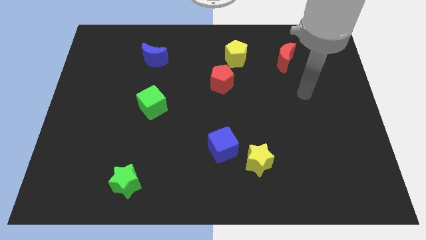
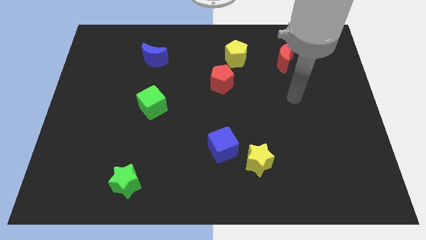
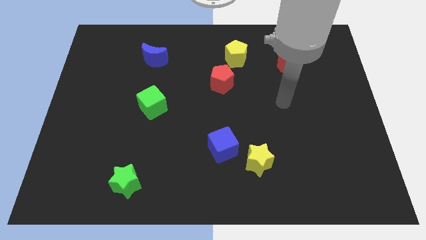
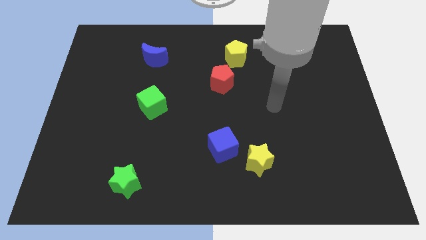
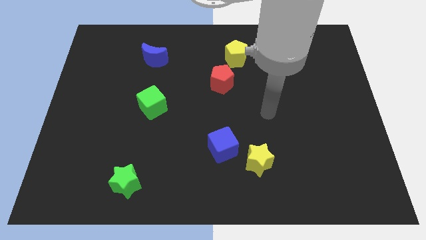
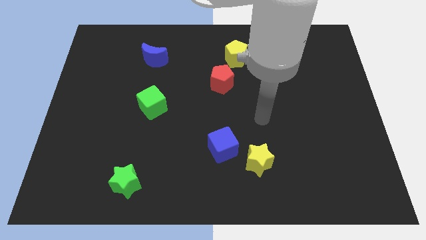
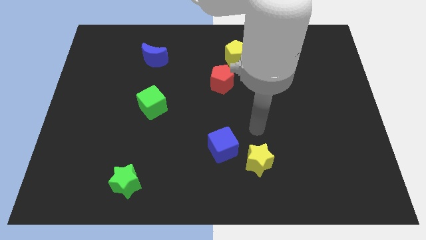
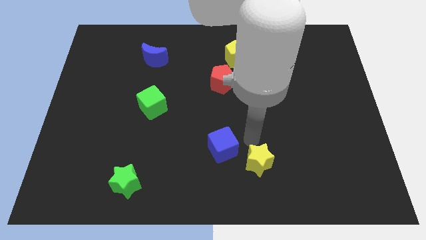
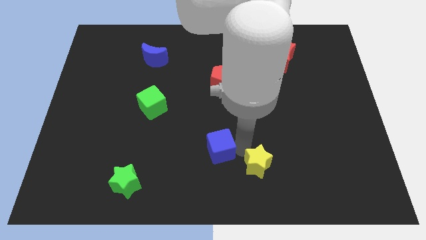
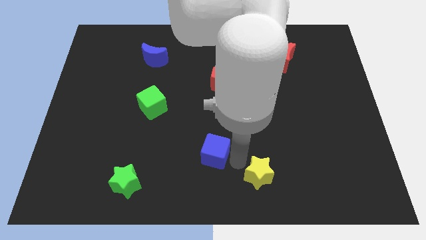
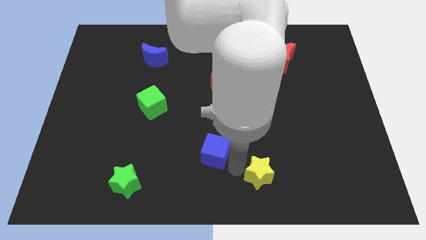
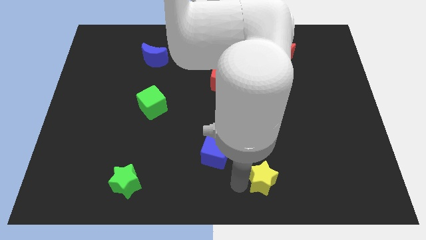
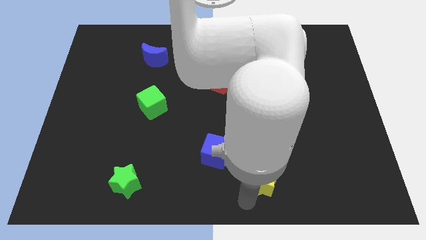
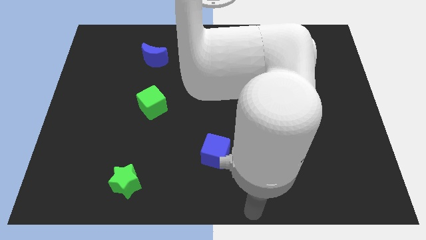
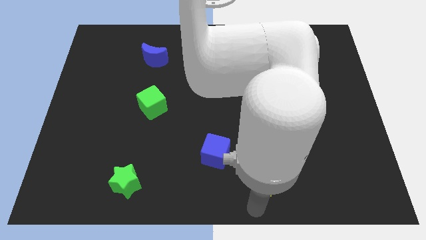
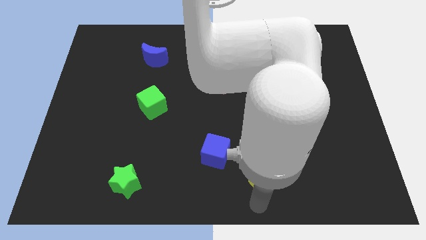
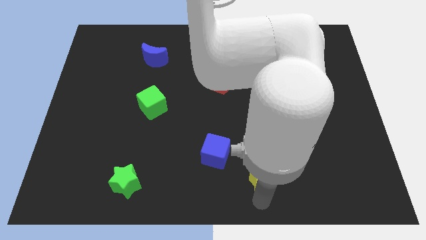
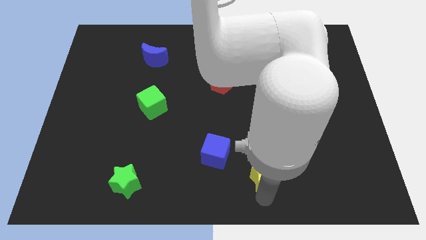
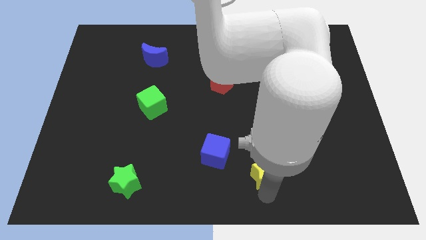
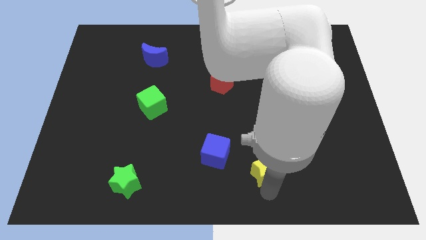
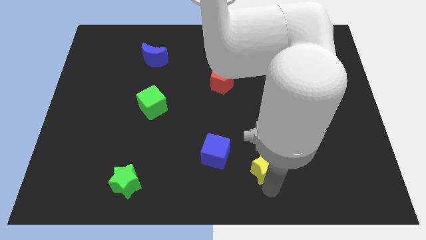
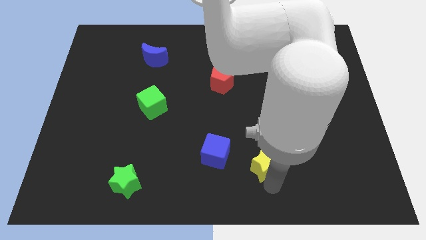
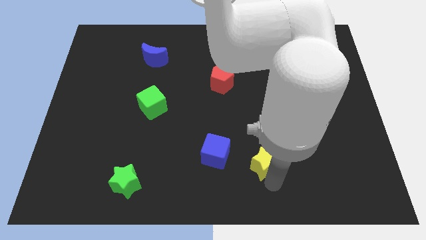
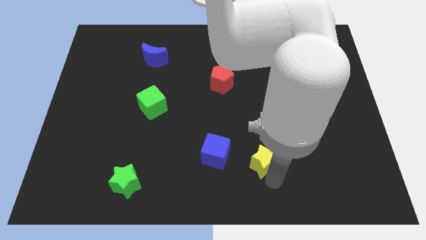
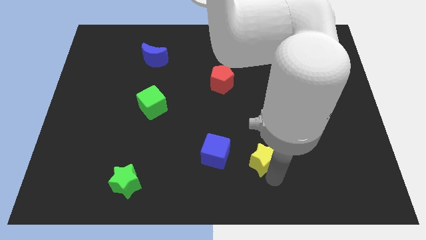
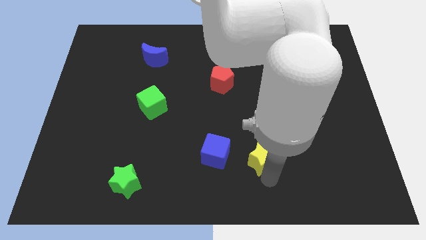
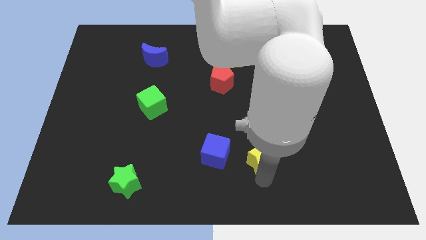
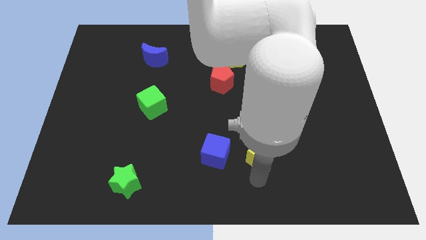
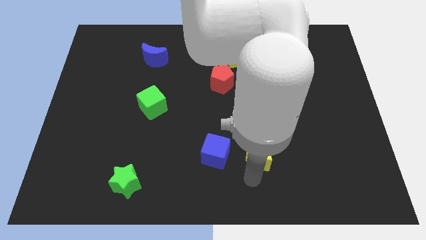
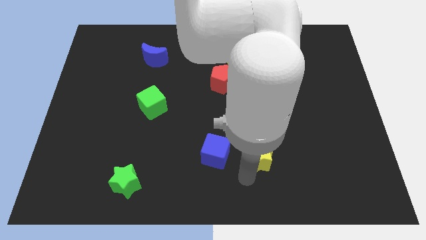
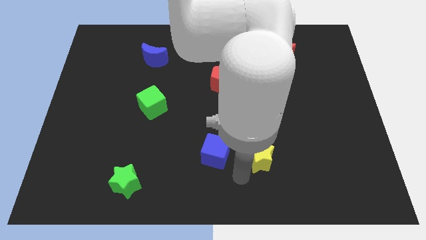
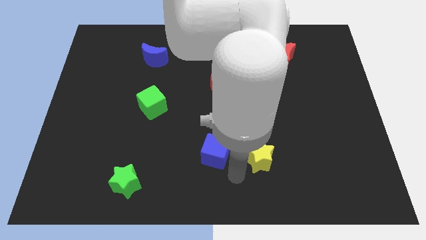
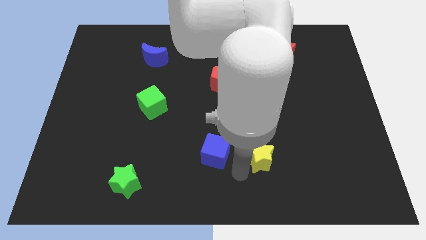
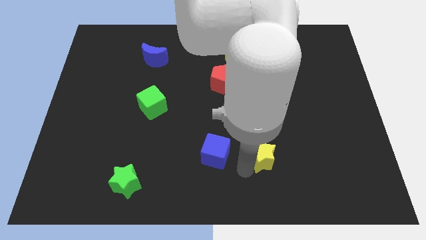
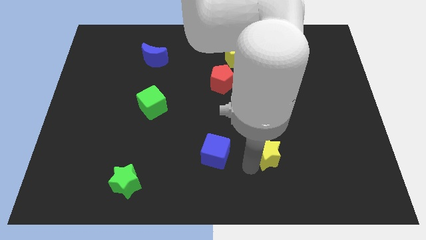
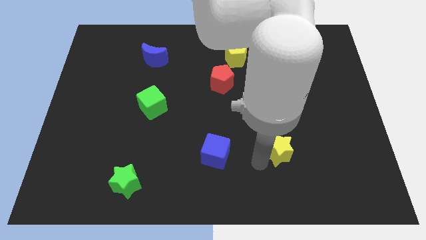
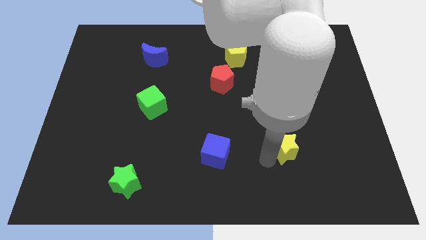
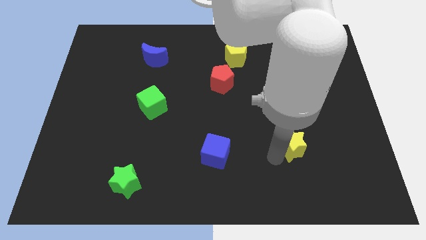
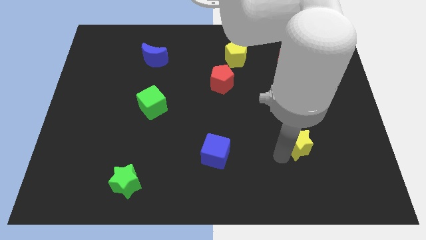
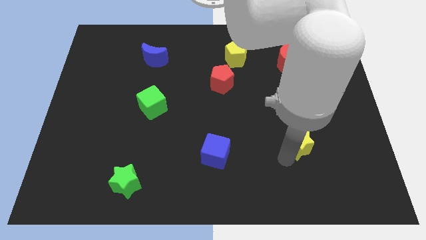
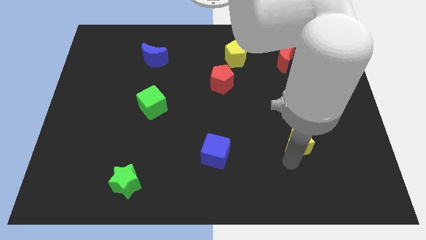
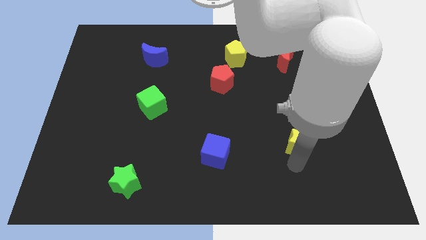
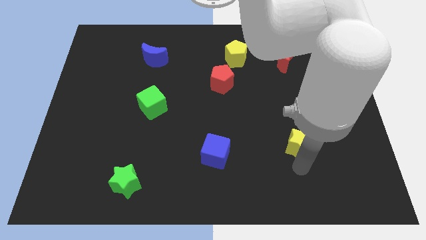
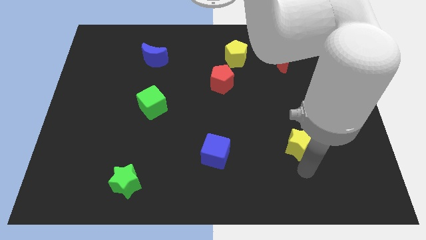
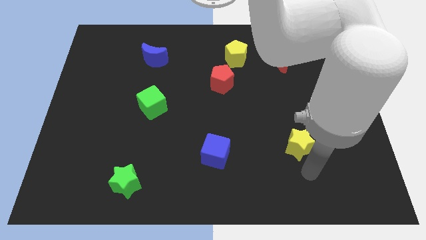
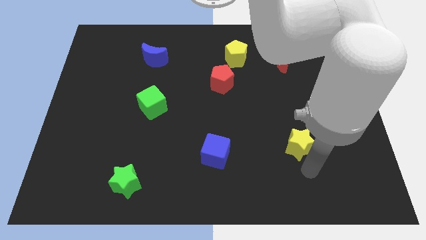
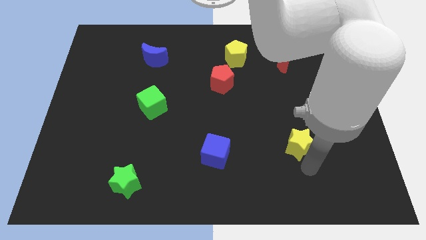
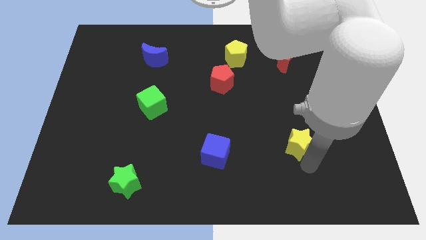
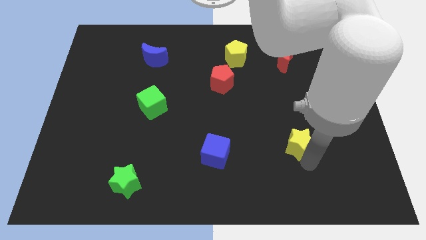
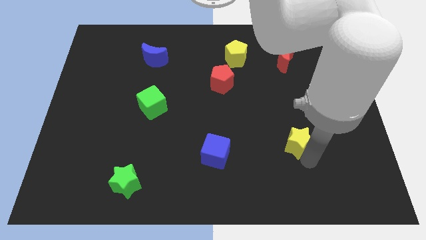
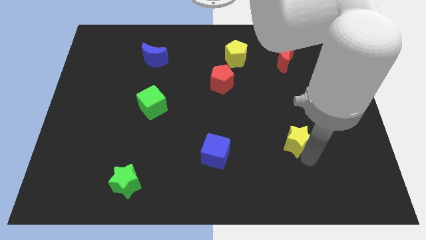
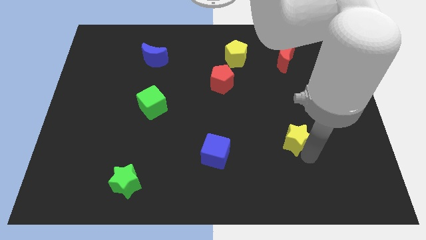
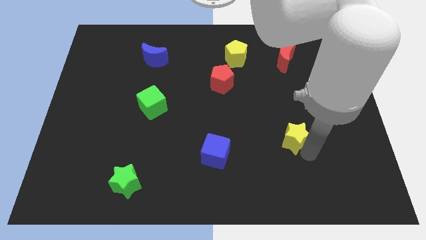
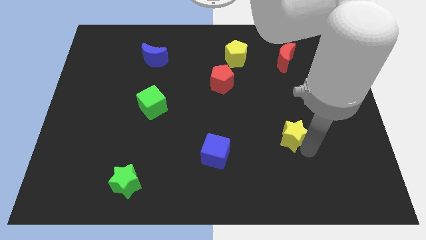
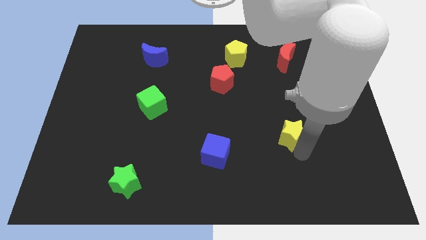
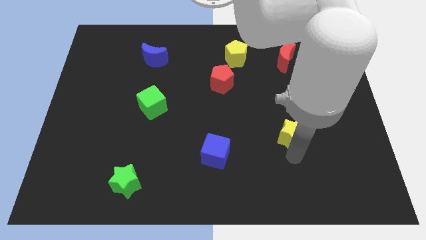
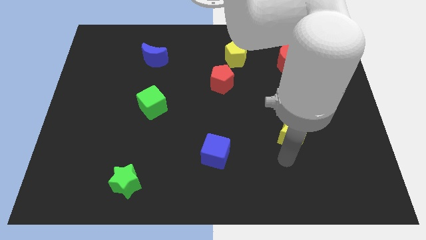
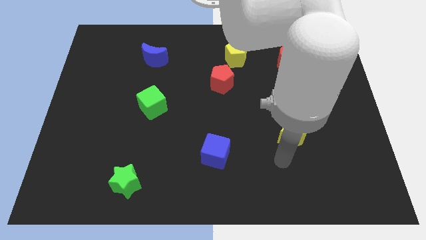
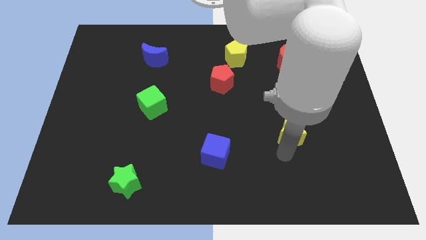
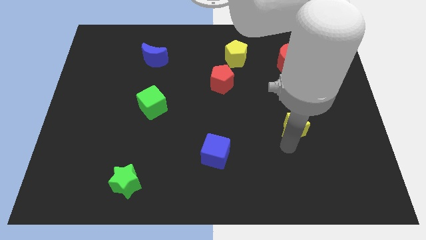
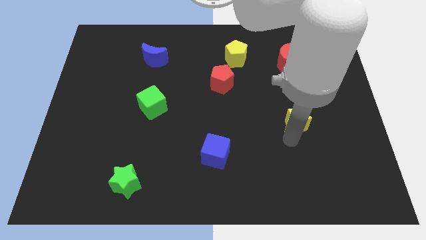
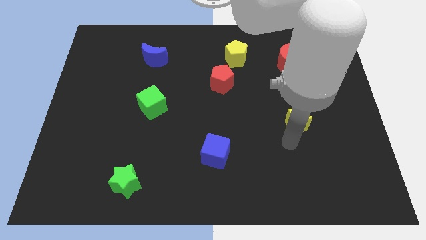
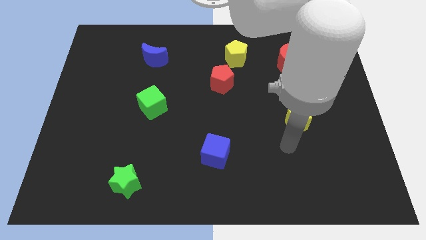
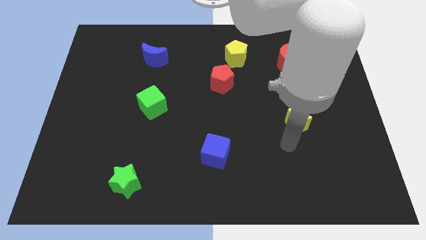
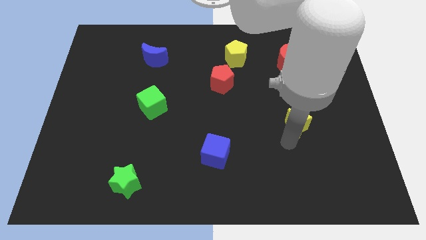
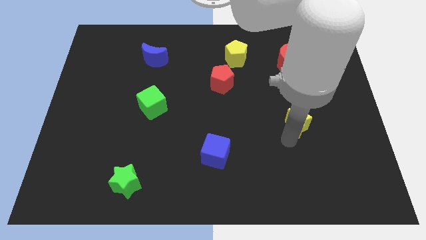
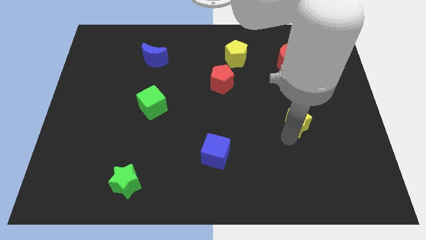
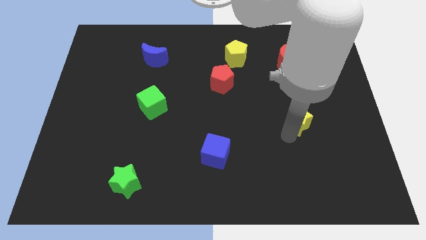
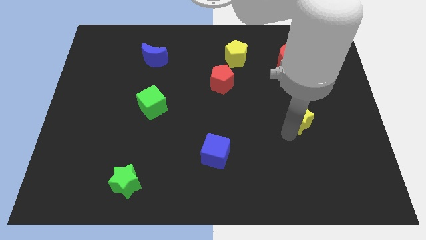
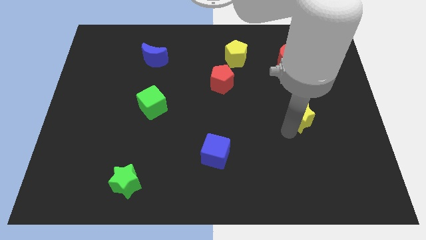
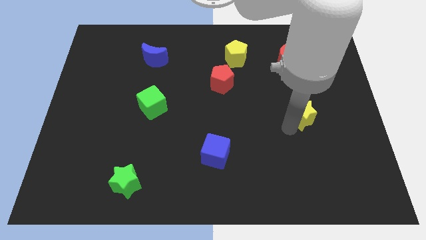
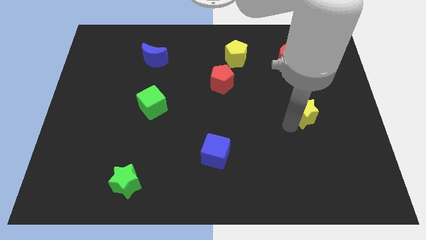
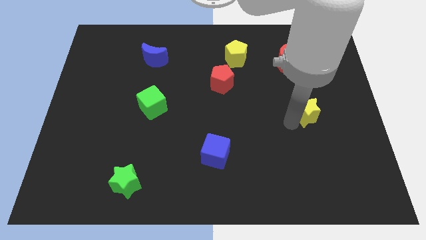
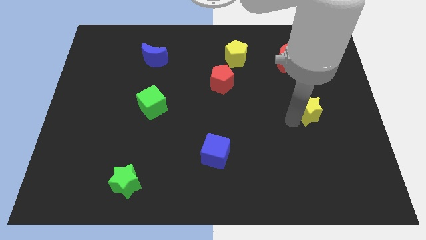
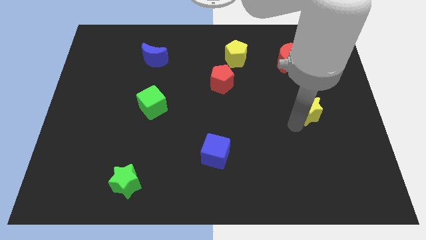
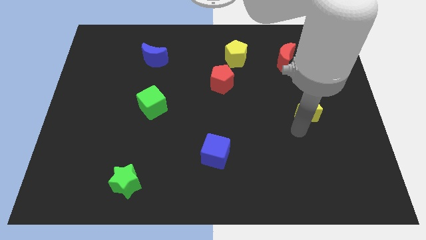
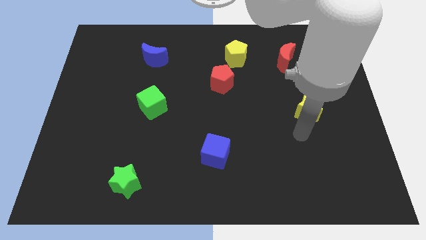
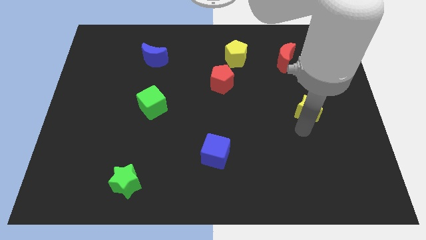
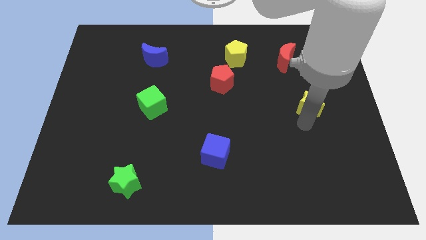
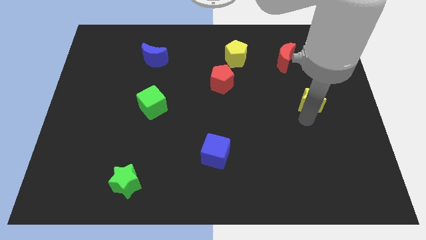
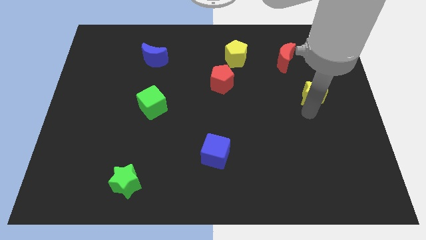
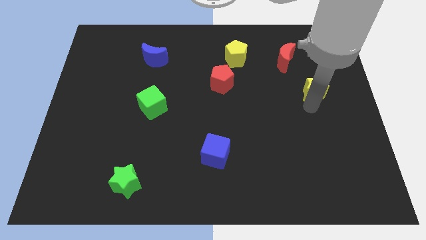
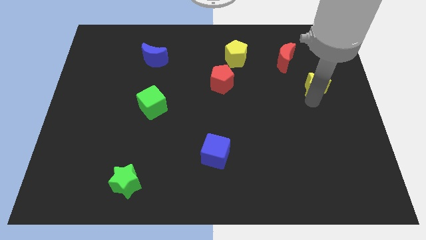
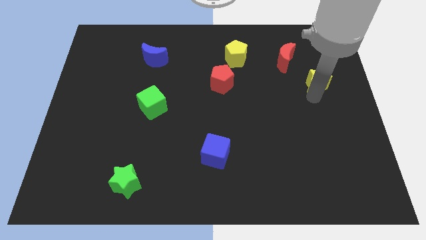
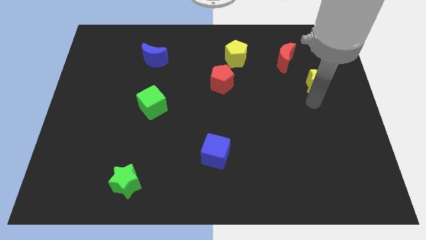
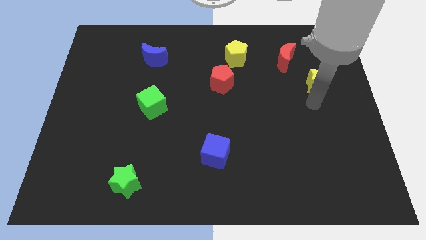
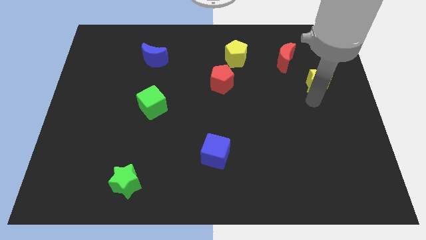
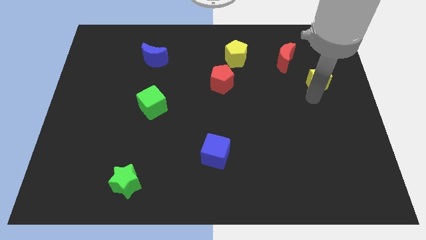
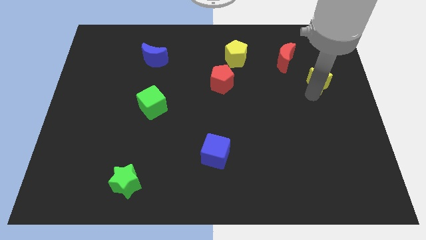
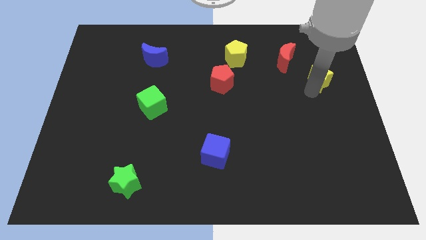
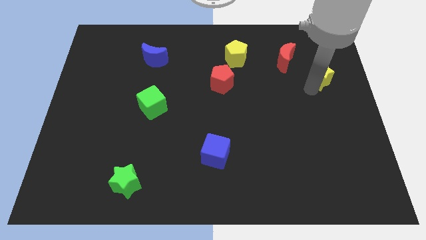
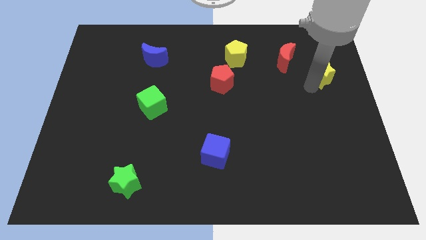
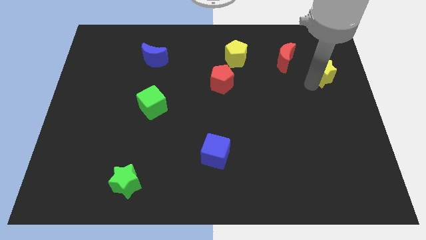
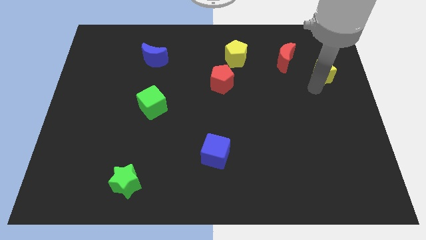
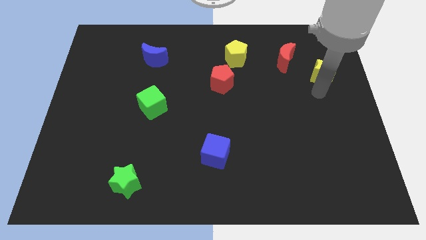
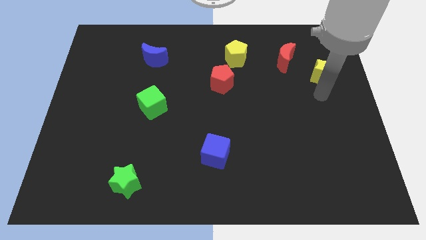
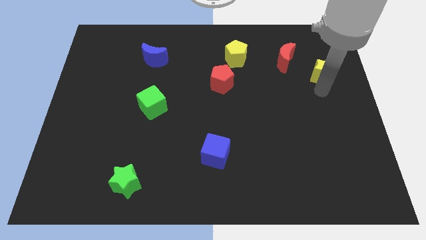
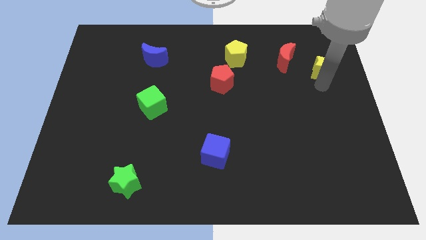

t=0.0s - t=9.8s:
put the yellow star to the right side of the red moon
